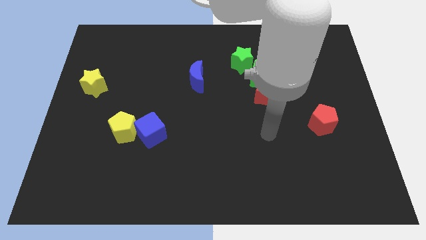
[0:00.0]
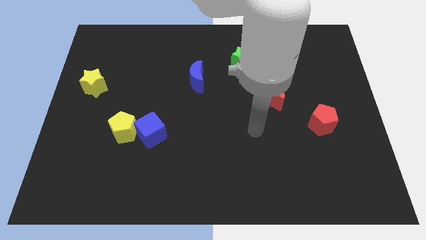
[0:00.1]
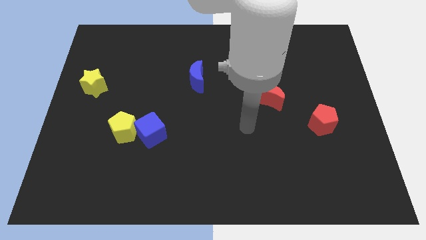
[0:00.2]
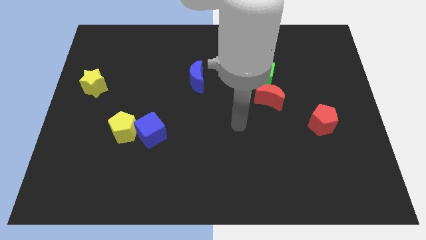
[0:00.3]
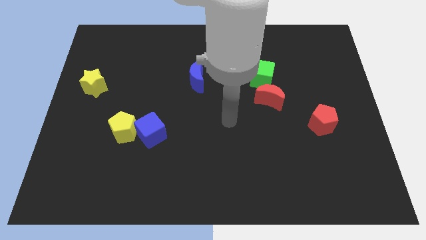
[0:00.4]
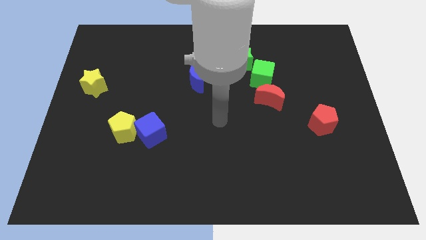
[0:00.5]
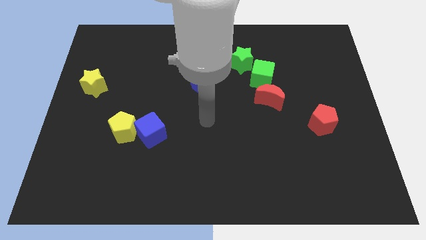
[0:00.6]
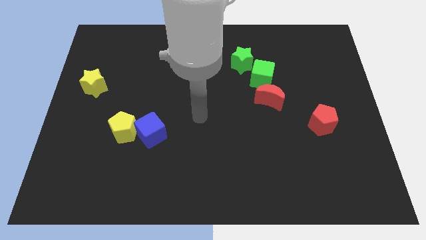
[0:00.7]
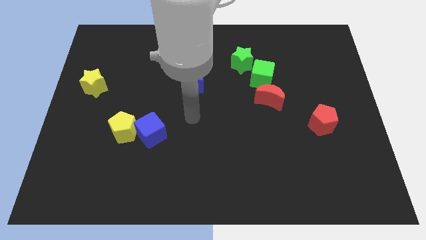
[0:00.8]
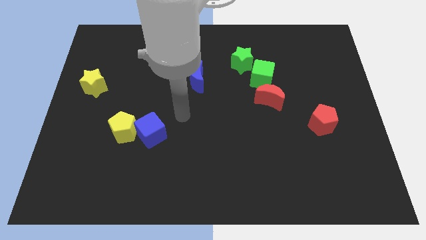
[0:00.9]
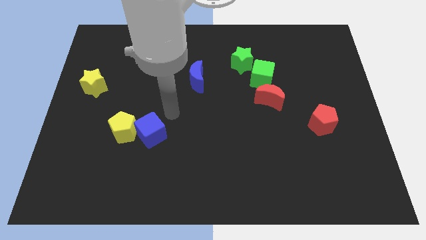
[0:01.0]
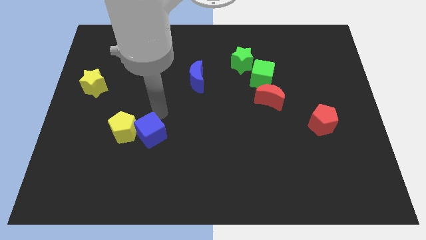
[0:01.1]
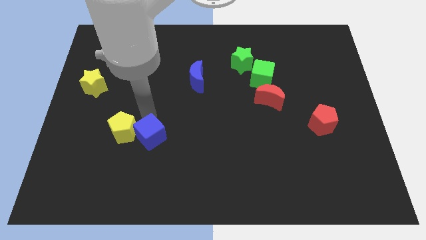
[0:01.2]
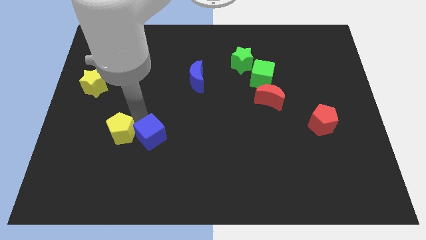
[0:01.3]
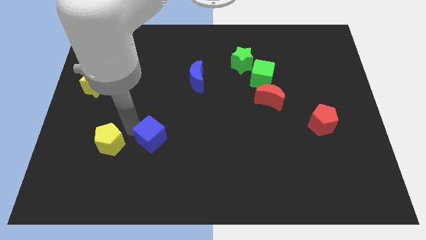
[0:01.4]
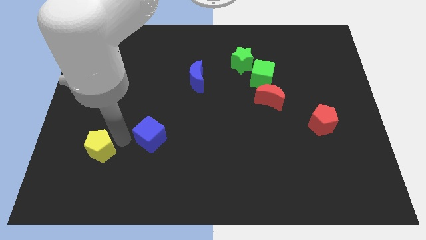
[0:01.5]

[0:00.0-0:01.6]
move the blue cube away from the yellow pentagon

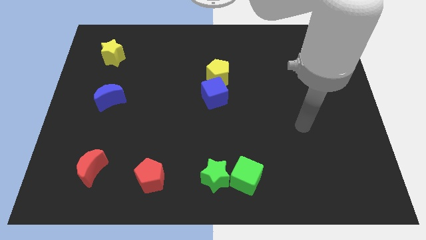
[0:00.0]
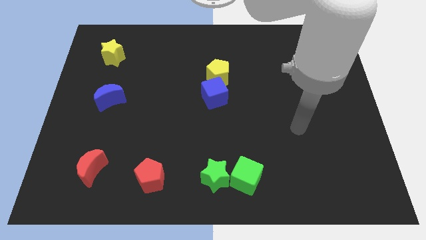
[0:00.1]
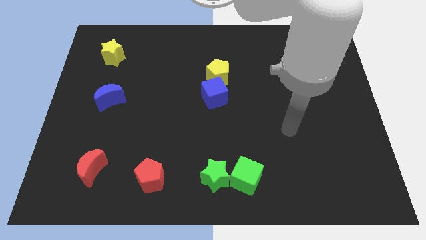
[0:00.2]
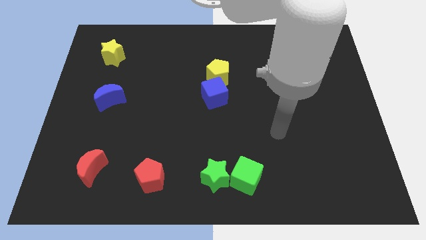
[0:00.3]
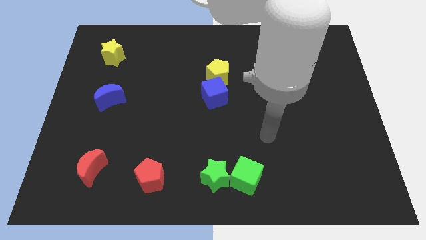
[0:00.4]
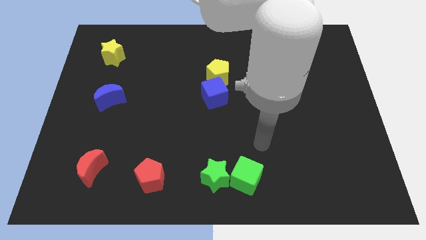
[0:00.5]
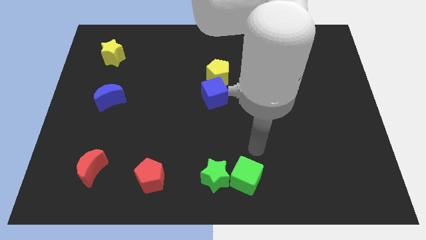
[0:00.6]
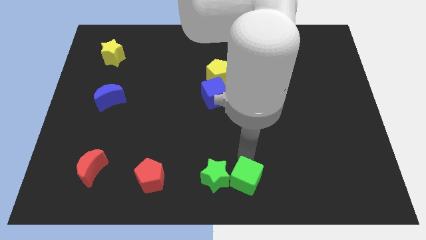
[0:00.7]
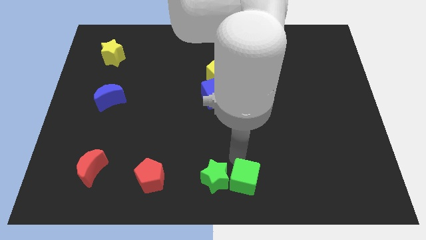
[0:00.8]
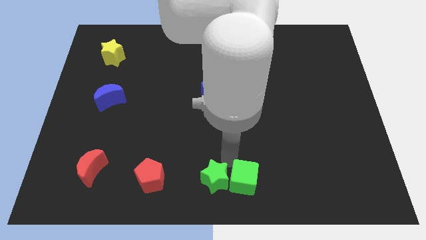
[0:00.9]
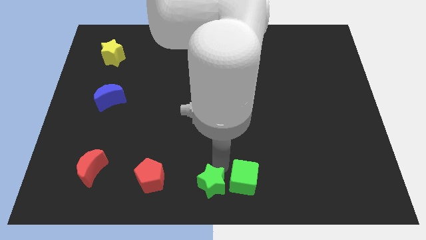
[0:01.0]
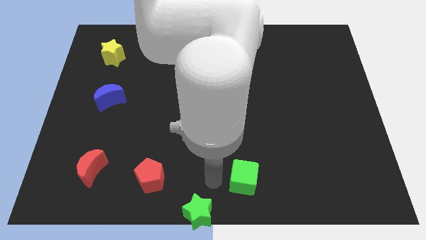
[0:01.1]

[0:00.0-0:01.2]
pull the green cube apart from the green star

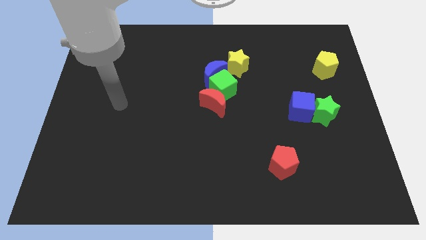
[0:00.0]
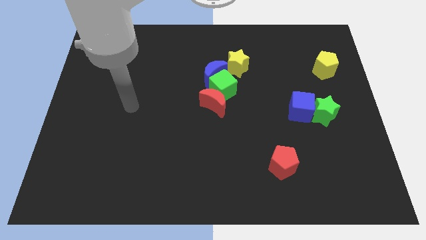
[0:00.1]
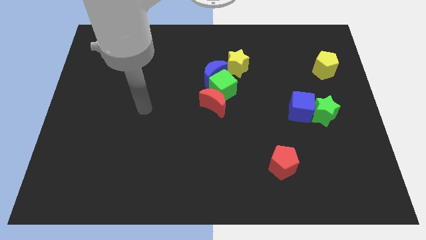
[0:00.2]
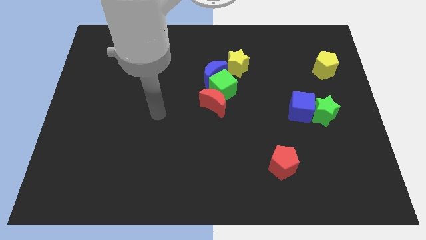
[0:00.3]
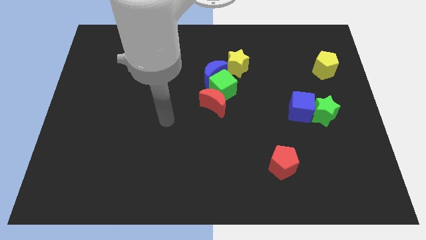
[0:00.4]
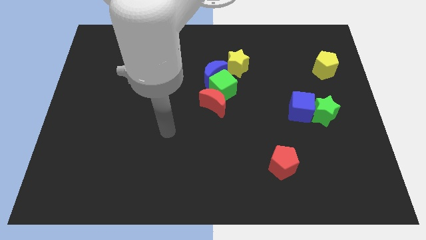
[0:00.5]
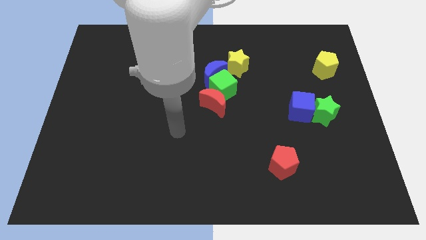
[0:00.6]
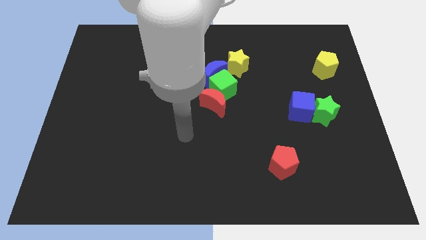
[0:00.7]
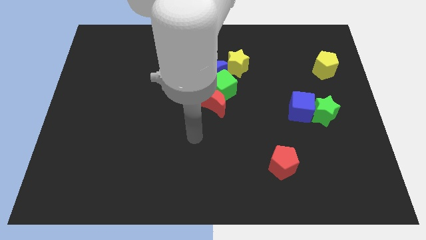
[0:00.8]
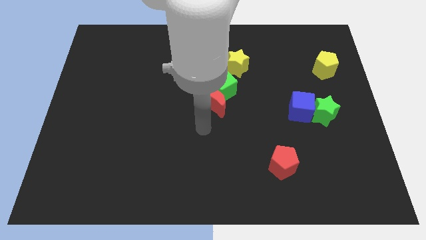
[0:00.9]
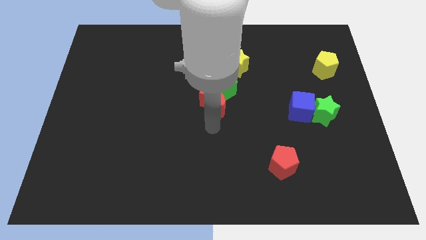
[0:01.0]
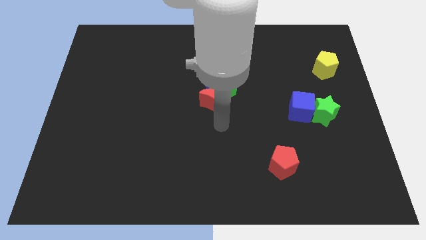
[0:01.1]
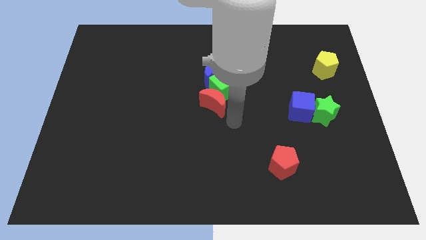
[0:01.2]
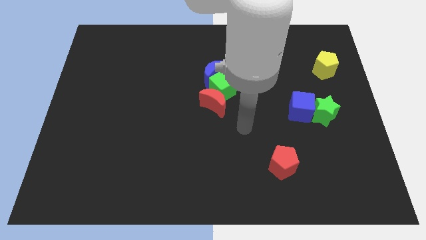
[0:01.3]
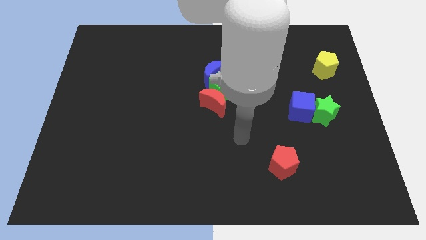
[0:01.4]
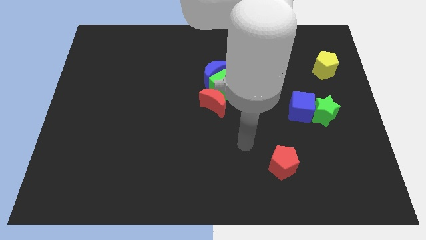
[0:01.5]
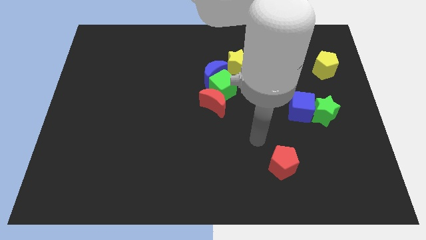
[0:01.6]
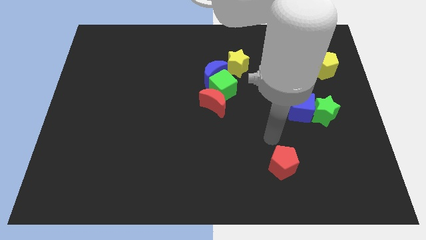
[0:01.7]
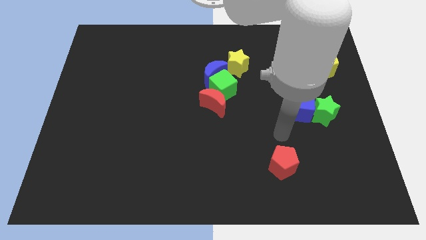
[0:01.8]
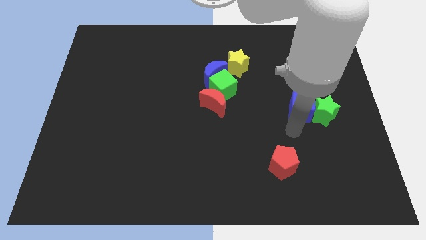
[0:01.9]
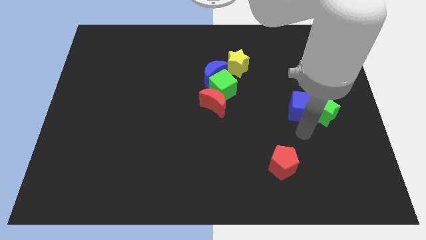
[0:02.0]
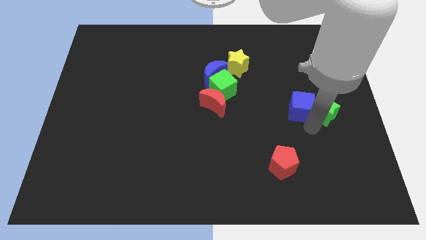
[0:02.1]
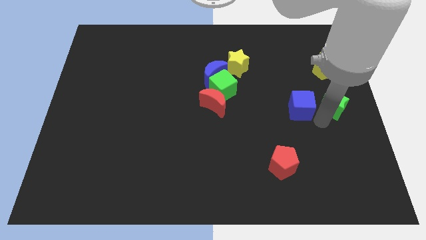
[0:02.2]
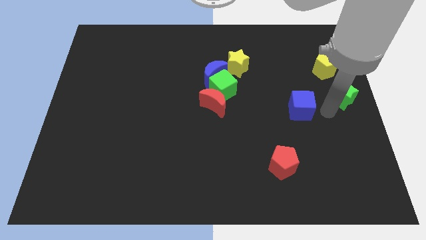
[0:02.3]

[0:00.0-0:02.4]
move the blue cube away from the green star

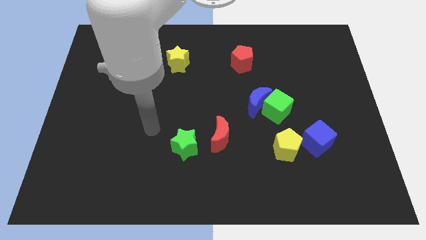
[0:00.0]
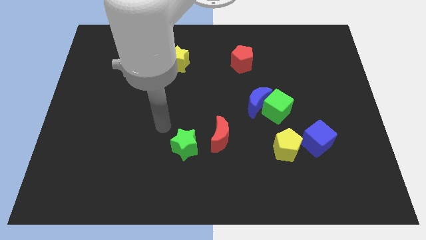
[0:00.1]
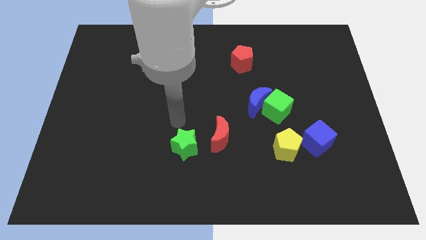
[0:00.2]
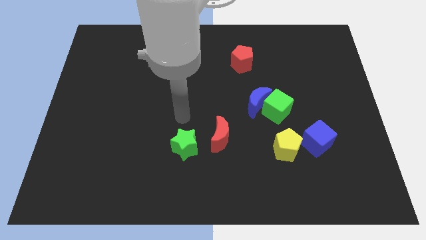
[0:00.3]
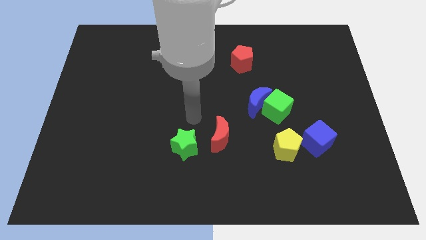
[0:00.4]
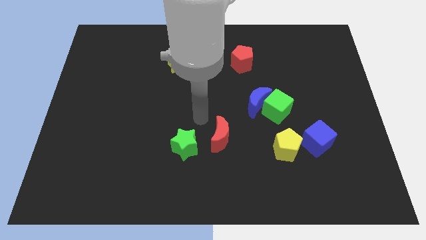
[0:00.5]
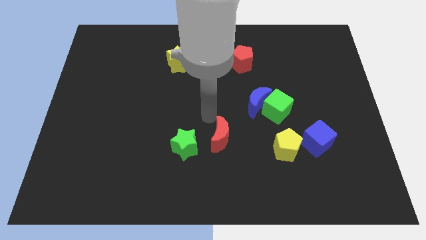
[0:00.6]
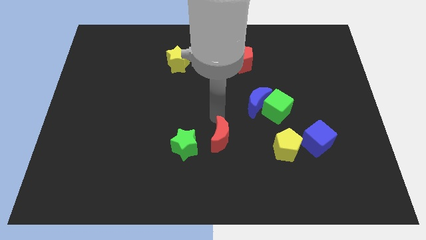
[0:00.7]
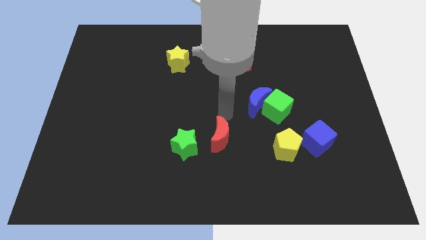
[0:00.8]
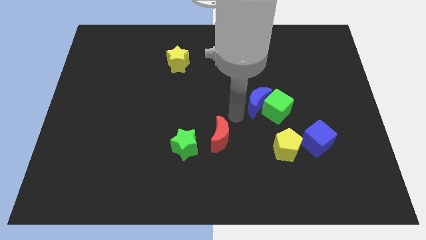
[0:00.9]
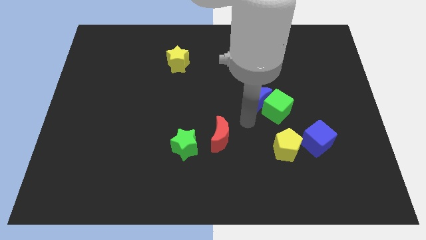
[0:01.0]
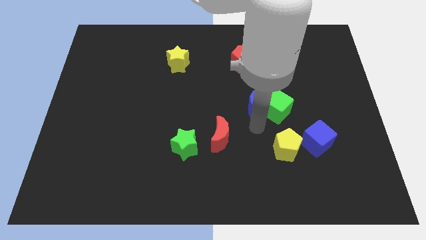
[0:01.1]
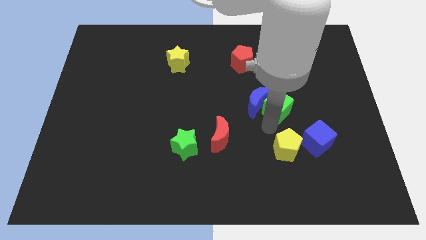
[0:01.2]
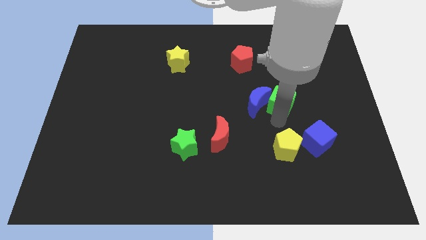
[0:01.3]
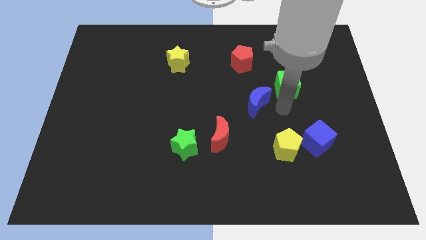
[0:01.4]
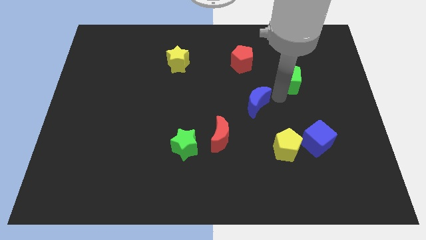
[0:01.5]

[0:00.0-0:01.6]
pull the blue moon apart from the green cube

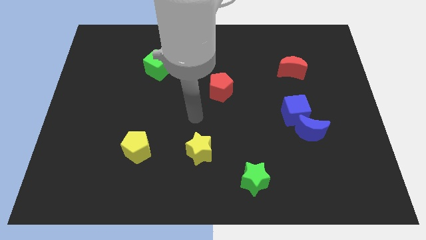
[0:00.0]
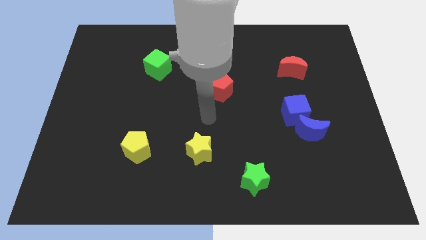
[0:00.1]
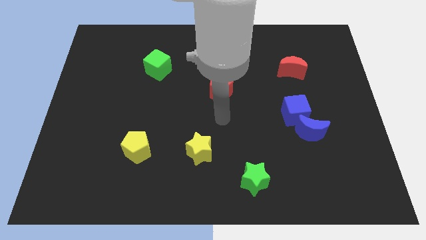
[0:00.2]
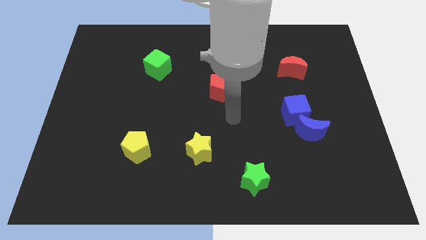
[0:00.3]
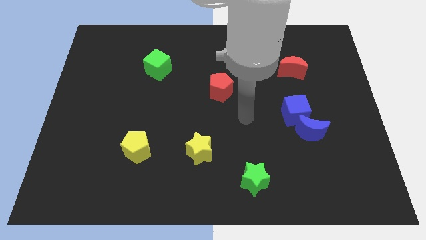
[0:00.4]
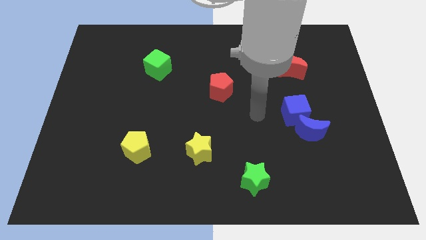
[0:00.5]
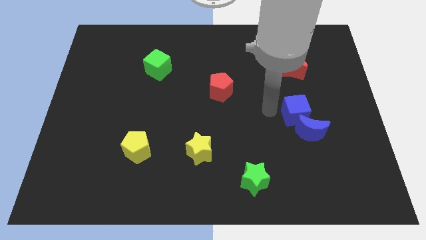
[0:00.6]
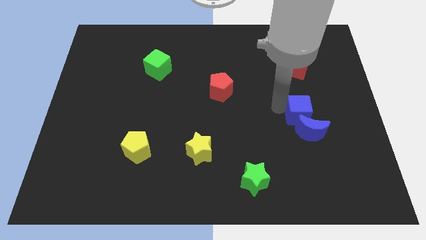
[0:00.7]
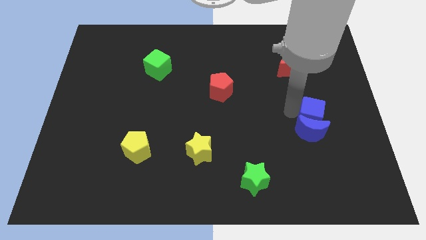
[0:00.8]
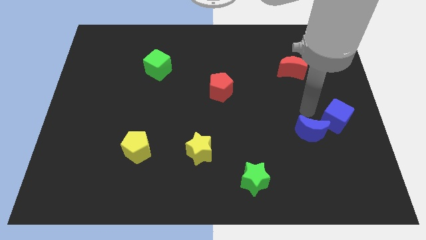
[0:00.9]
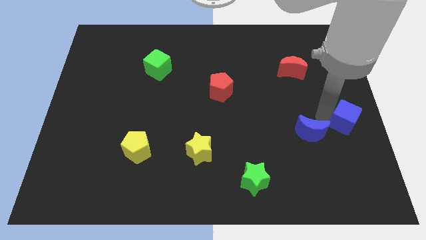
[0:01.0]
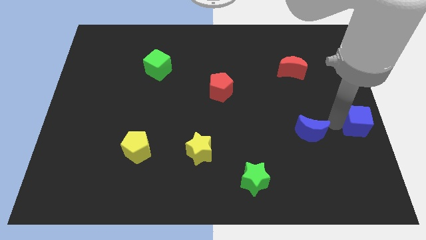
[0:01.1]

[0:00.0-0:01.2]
move the blue moon away from the blue cube

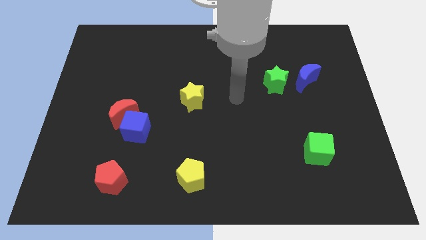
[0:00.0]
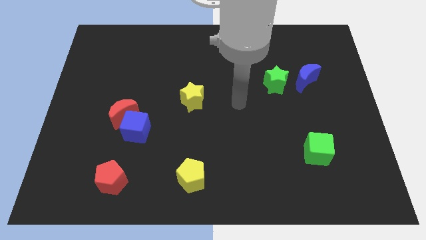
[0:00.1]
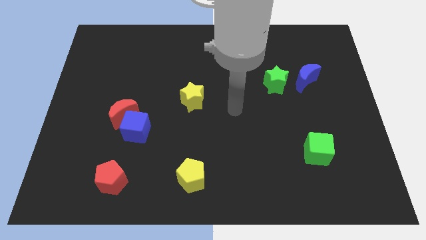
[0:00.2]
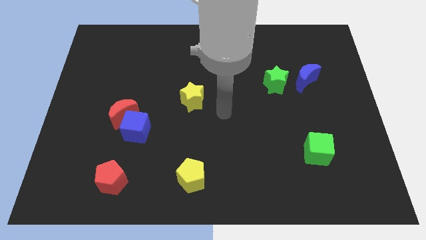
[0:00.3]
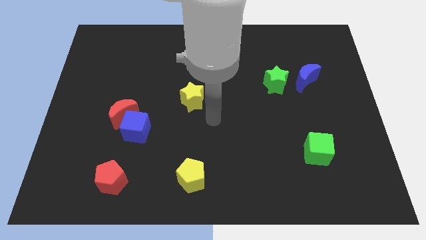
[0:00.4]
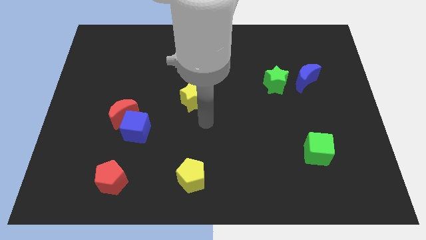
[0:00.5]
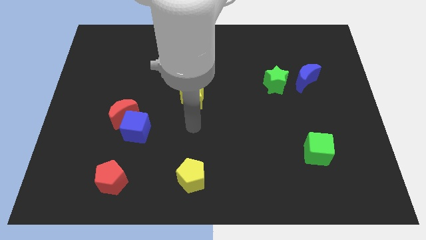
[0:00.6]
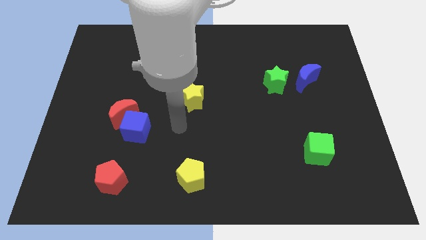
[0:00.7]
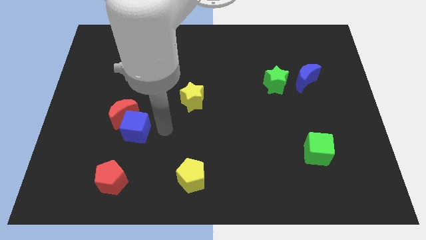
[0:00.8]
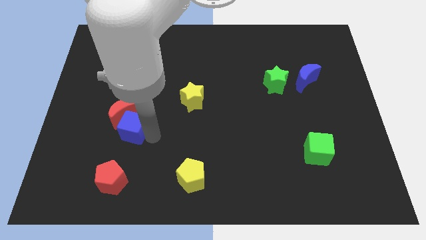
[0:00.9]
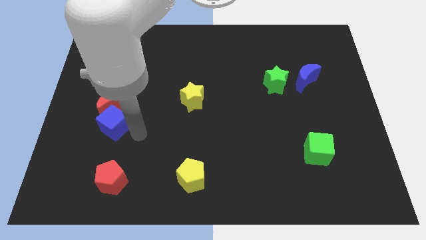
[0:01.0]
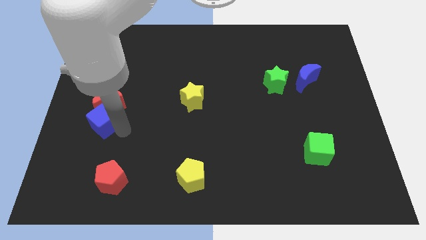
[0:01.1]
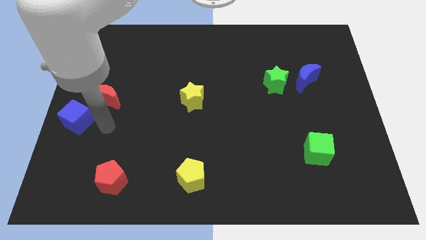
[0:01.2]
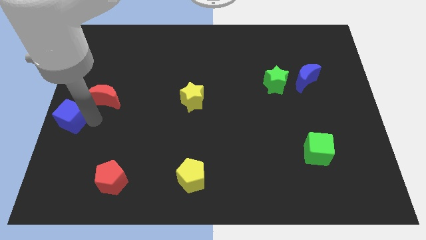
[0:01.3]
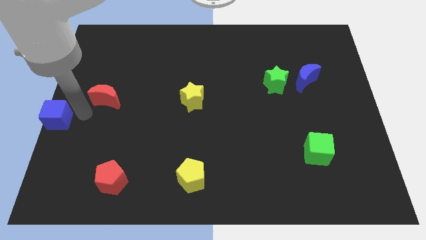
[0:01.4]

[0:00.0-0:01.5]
separate the red moon from the blue cube
